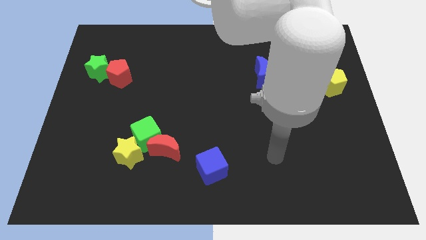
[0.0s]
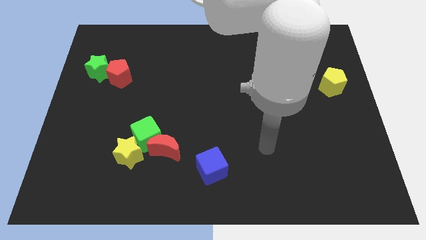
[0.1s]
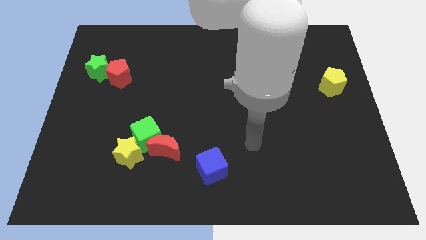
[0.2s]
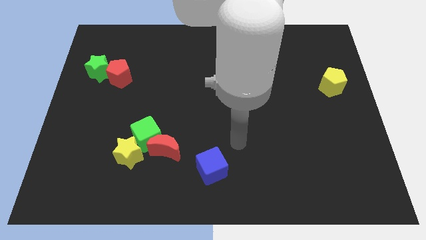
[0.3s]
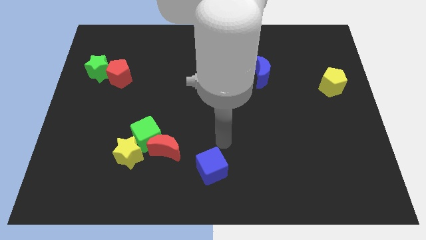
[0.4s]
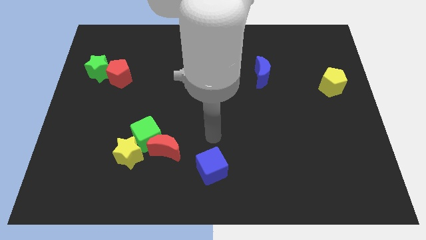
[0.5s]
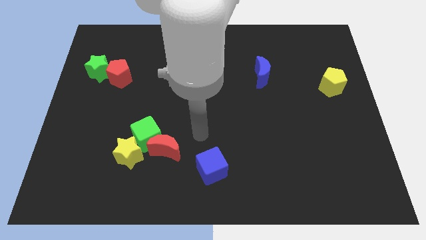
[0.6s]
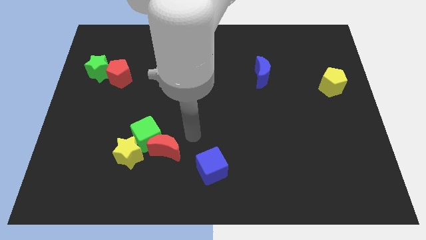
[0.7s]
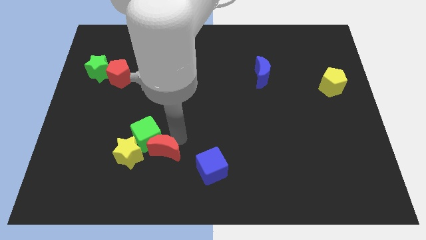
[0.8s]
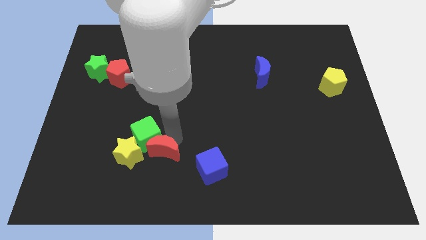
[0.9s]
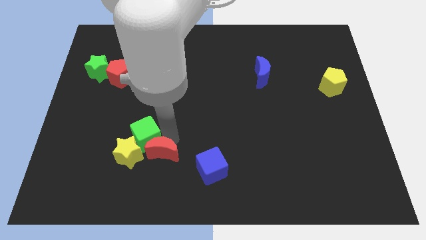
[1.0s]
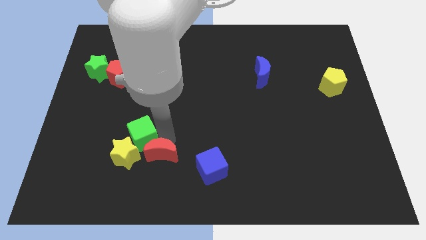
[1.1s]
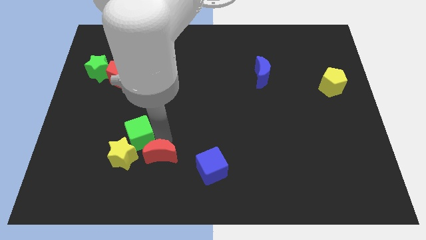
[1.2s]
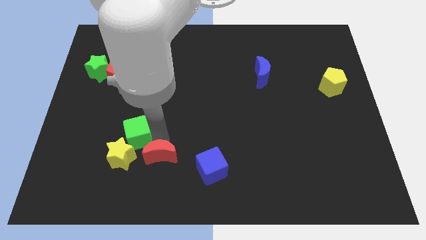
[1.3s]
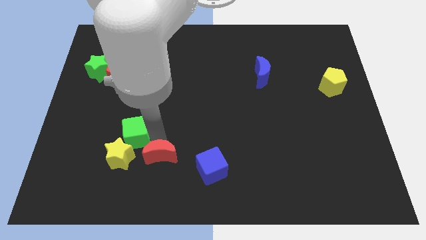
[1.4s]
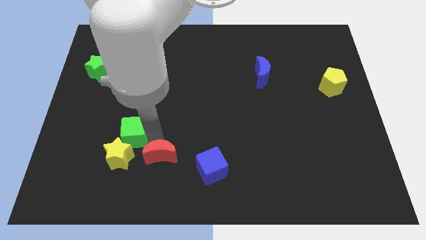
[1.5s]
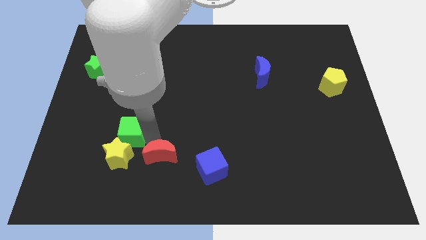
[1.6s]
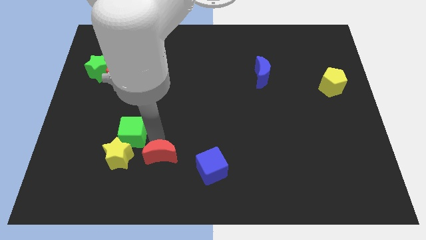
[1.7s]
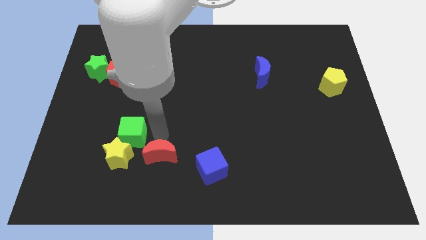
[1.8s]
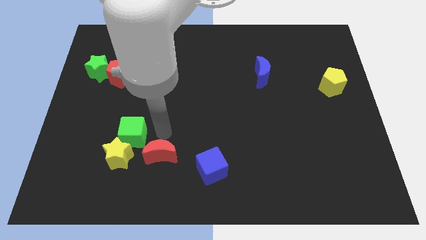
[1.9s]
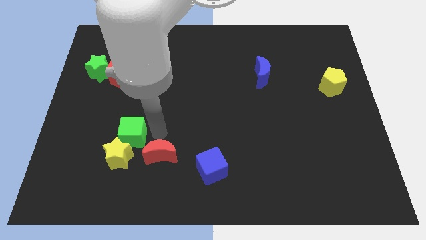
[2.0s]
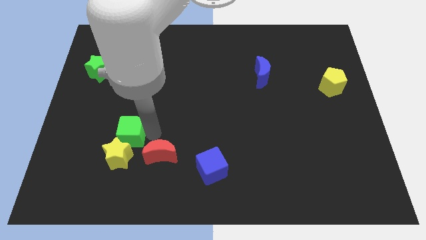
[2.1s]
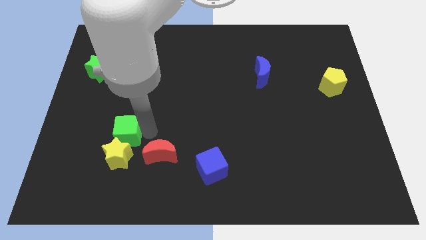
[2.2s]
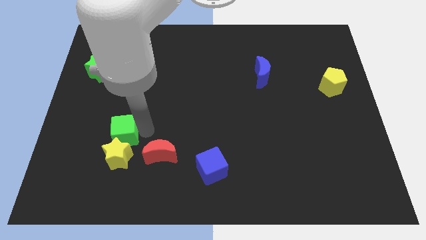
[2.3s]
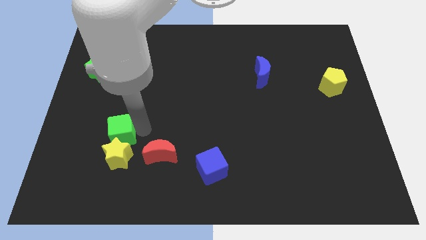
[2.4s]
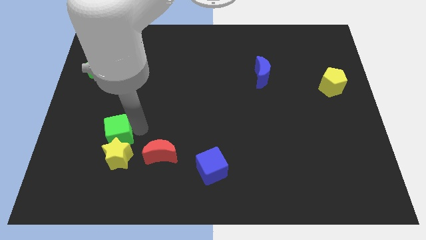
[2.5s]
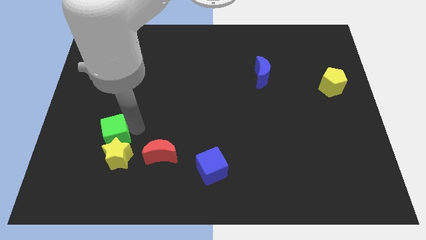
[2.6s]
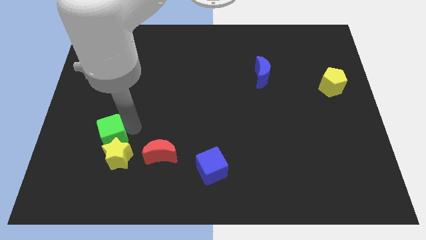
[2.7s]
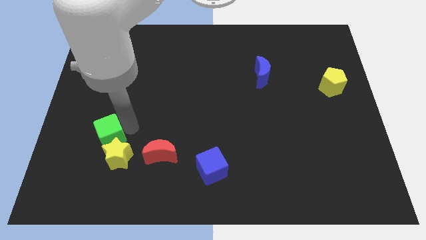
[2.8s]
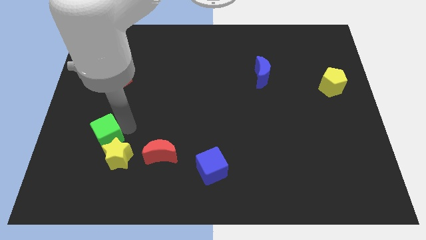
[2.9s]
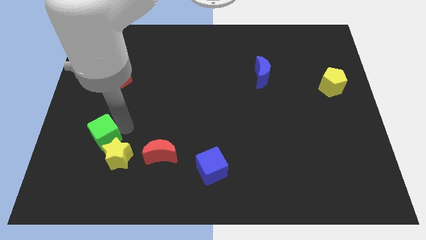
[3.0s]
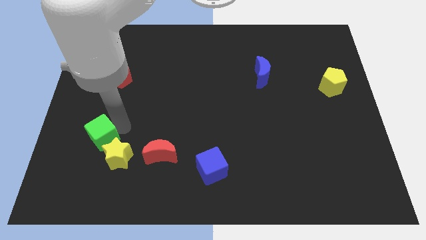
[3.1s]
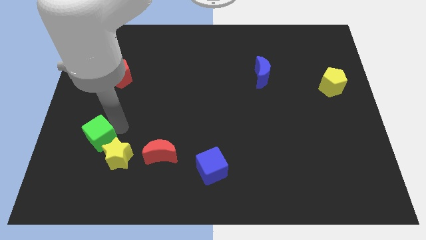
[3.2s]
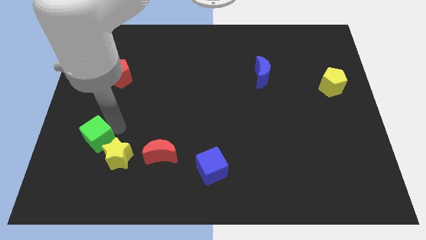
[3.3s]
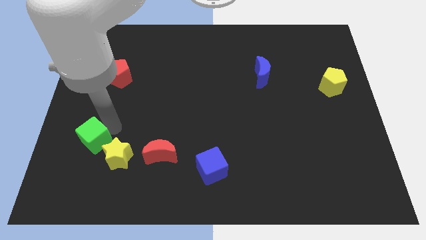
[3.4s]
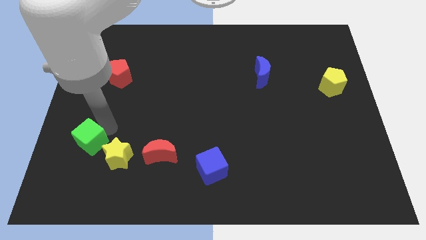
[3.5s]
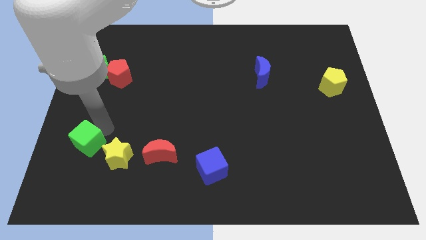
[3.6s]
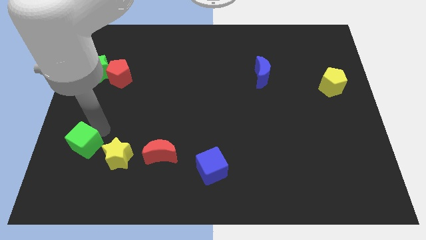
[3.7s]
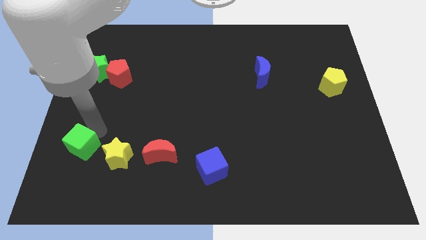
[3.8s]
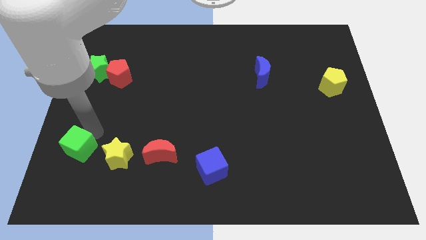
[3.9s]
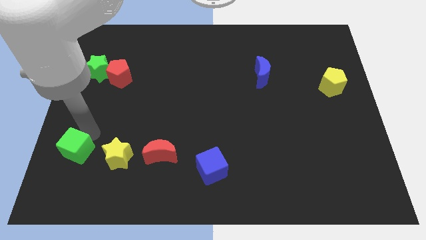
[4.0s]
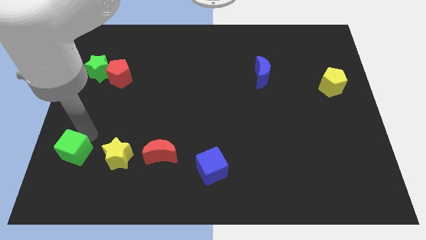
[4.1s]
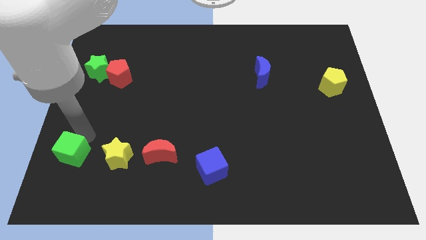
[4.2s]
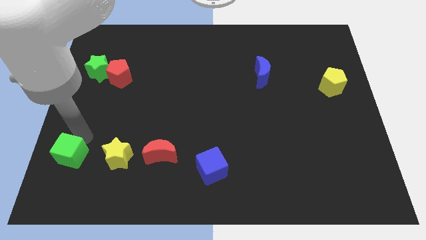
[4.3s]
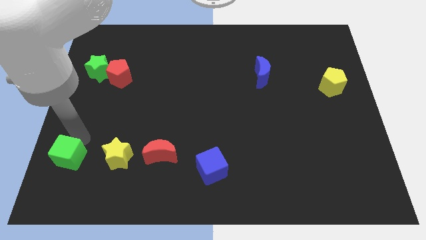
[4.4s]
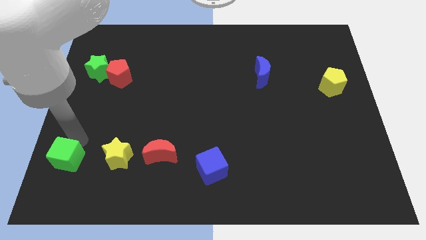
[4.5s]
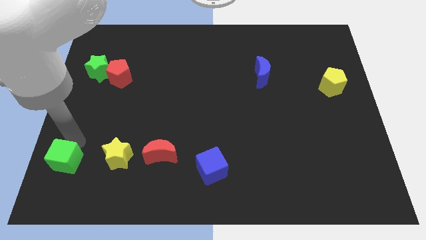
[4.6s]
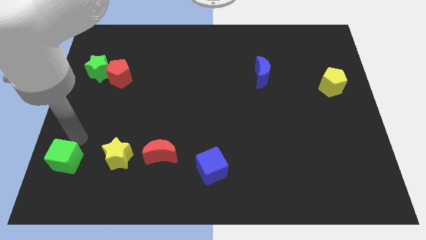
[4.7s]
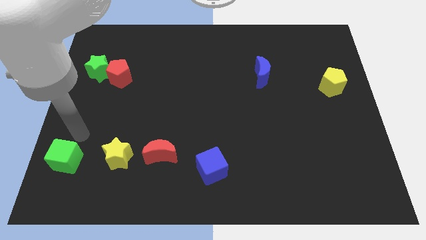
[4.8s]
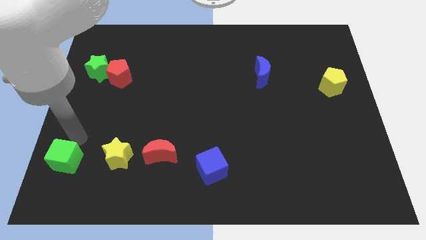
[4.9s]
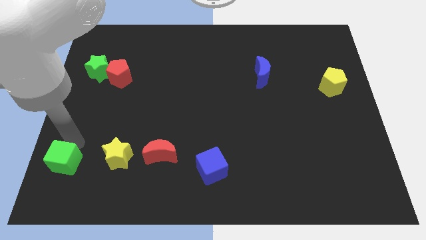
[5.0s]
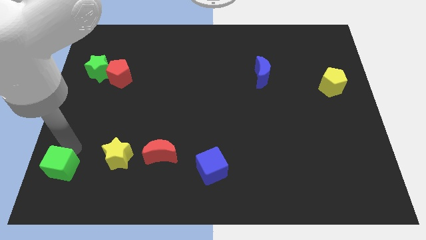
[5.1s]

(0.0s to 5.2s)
slide the green cube to the bottom left corner

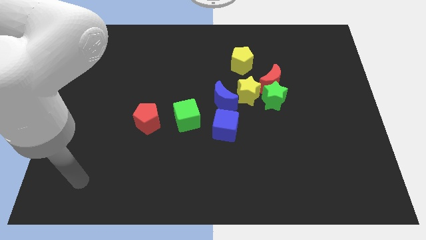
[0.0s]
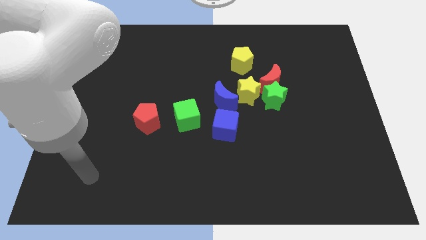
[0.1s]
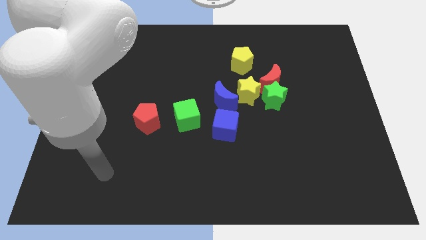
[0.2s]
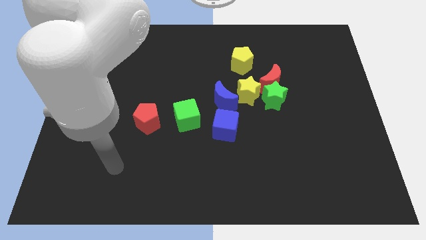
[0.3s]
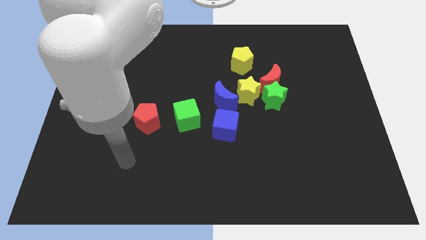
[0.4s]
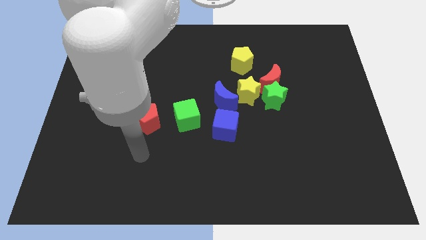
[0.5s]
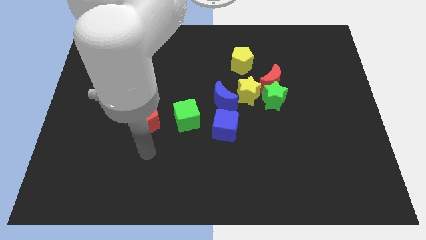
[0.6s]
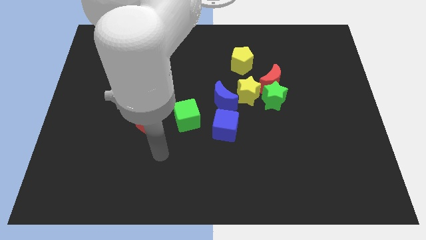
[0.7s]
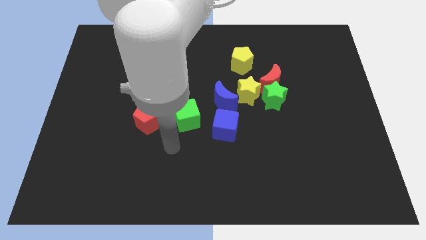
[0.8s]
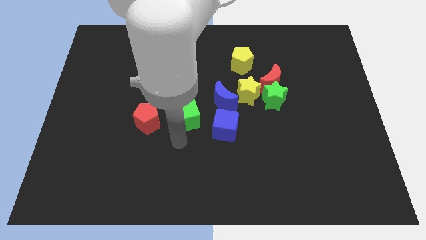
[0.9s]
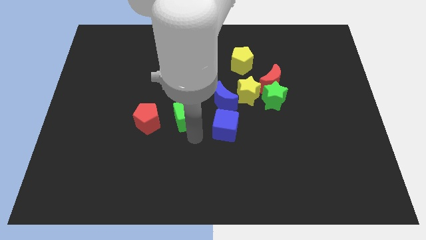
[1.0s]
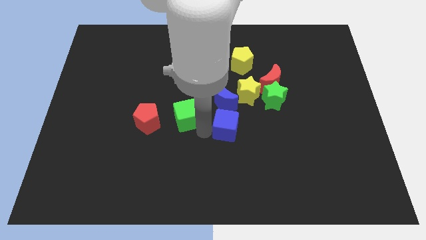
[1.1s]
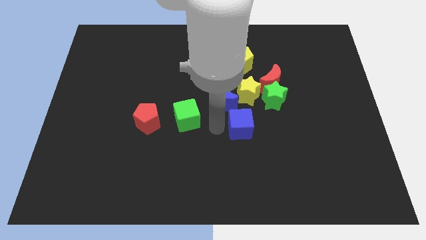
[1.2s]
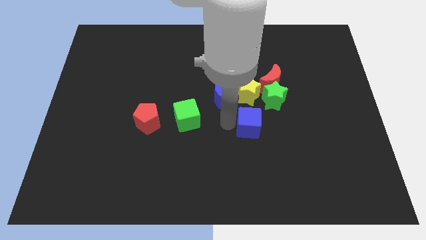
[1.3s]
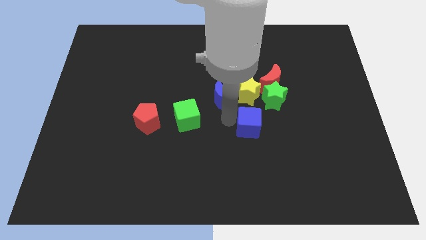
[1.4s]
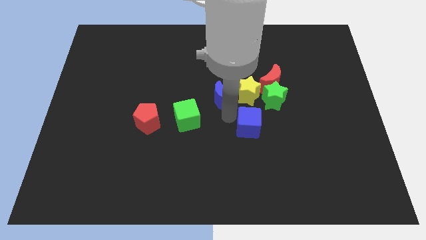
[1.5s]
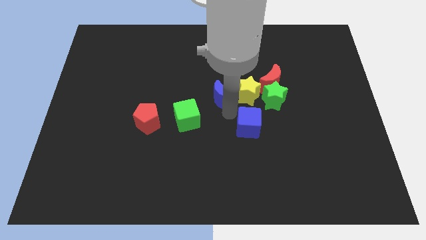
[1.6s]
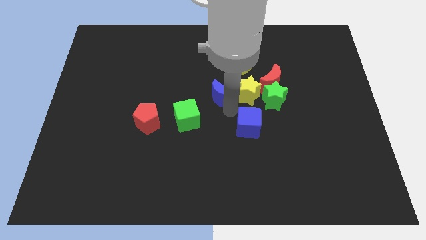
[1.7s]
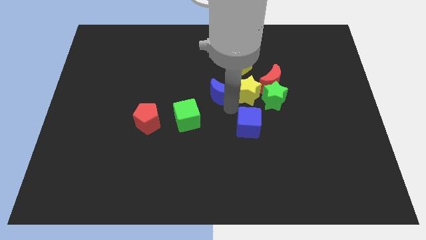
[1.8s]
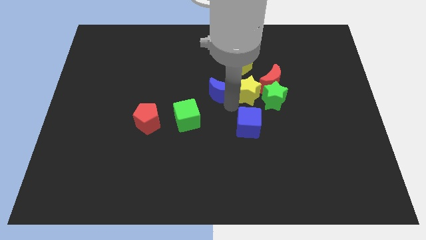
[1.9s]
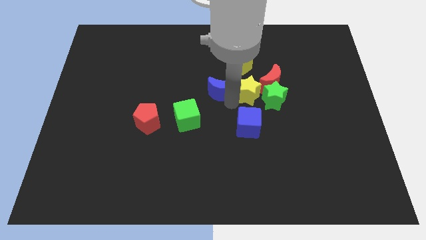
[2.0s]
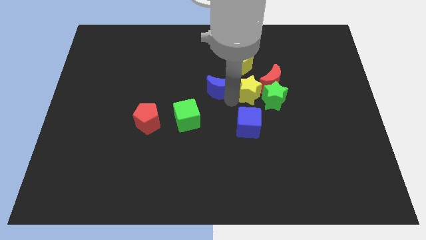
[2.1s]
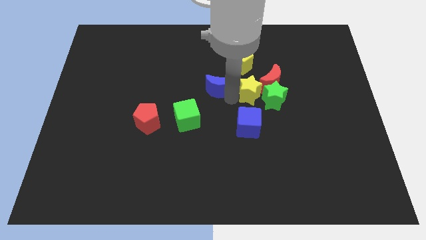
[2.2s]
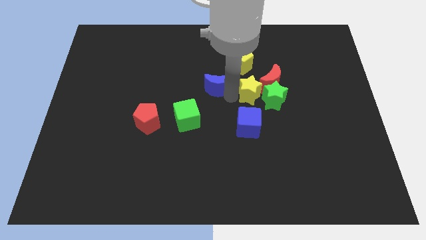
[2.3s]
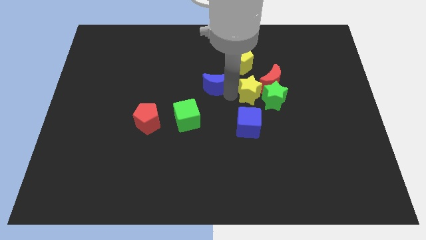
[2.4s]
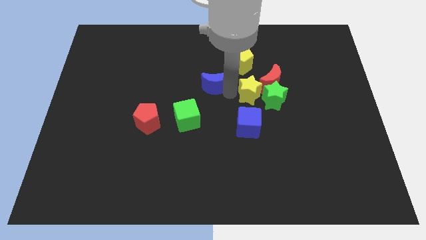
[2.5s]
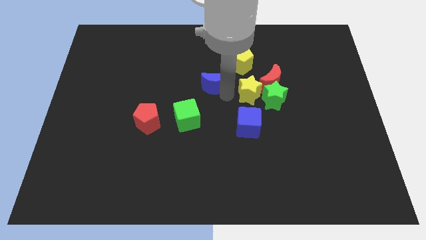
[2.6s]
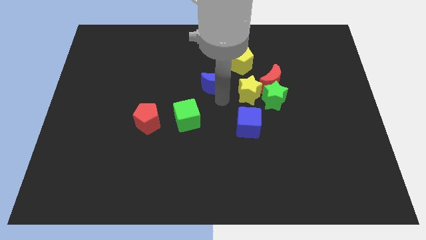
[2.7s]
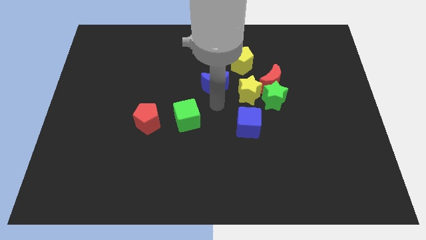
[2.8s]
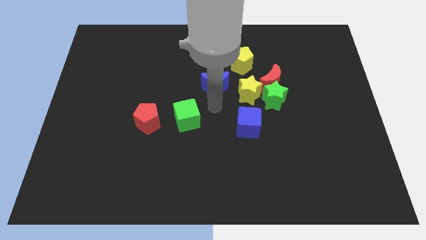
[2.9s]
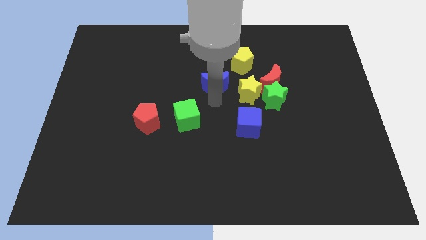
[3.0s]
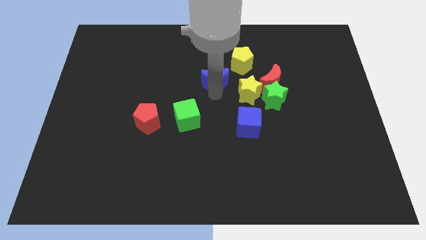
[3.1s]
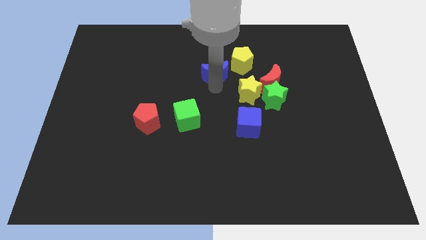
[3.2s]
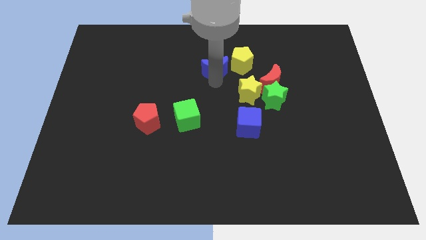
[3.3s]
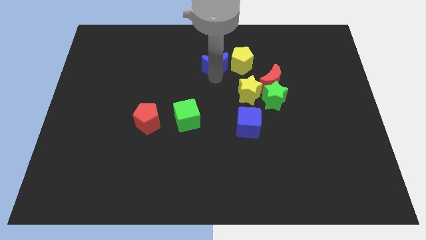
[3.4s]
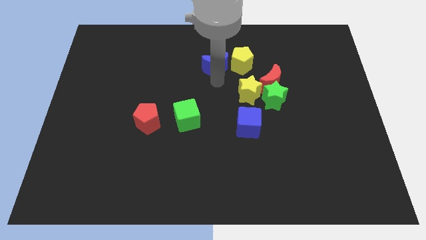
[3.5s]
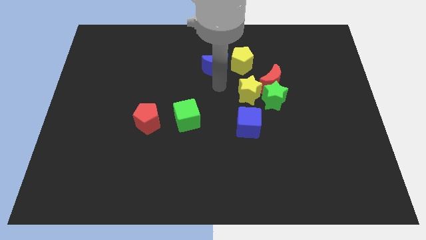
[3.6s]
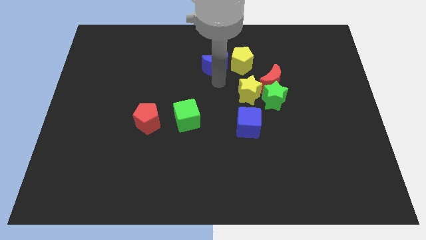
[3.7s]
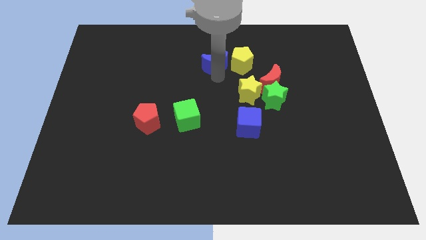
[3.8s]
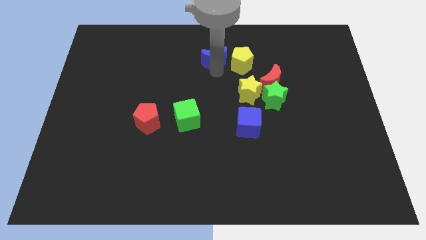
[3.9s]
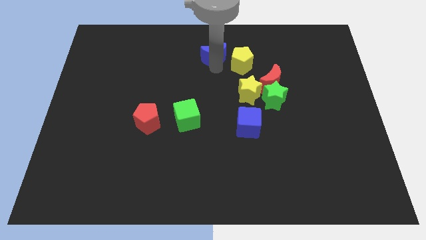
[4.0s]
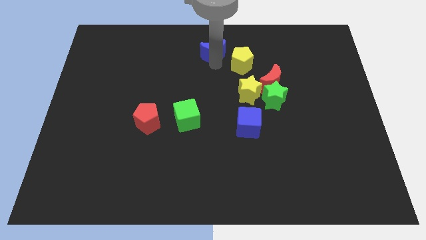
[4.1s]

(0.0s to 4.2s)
push the blue moon to the top side
